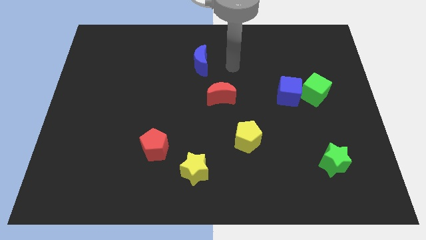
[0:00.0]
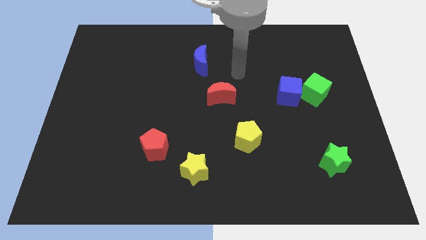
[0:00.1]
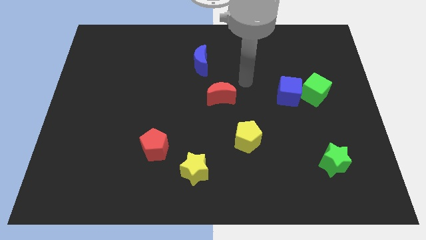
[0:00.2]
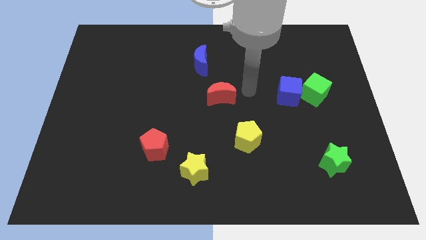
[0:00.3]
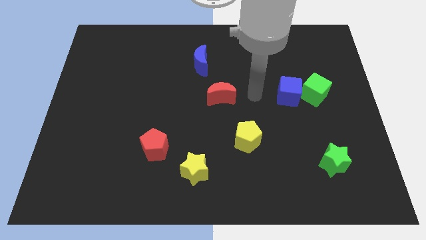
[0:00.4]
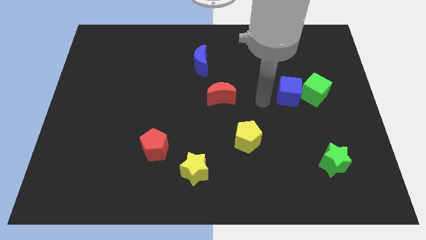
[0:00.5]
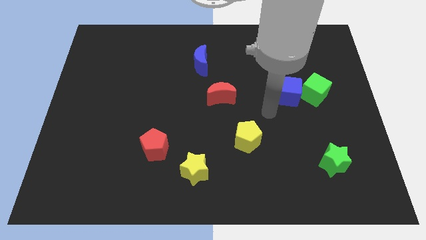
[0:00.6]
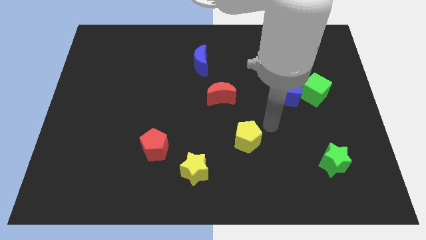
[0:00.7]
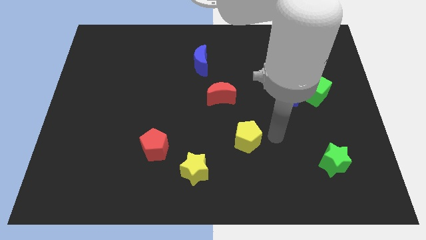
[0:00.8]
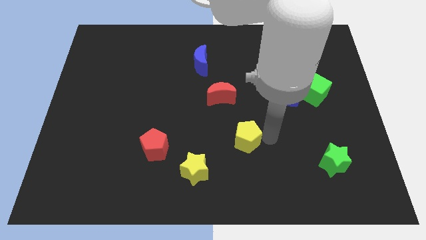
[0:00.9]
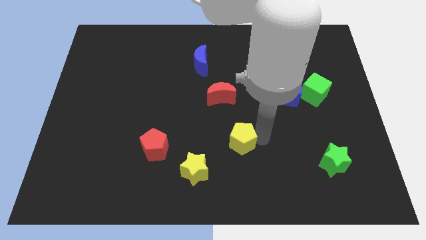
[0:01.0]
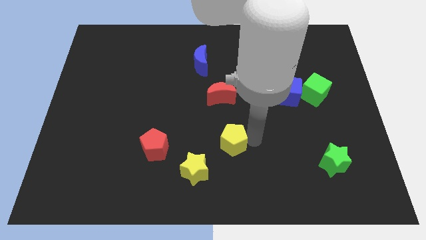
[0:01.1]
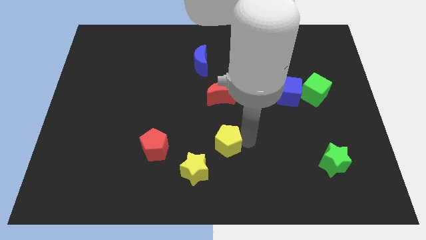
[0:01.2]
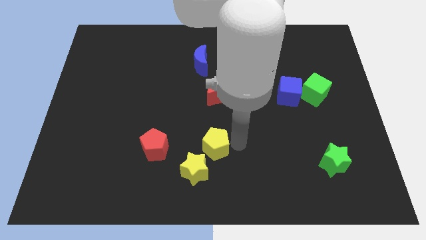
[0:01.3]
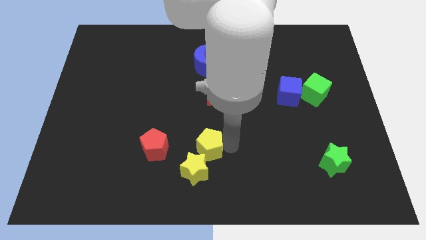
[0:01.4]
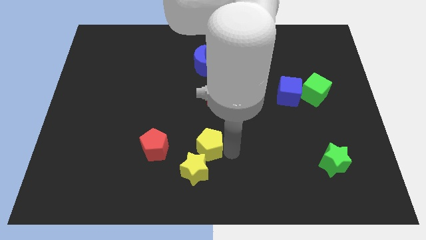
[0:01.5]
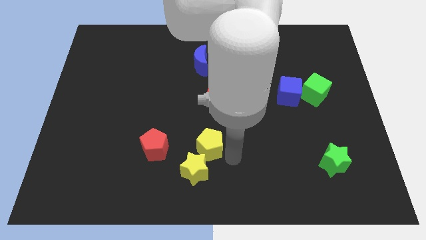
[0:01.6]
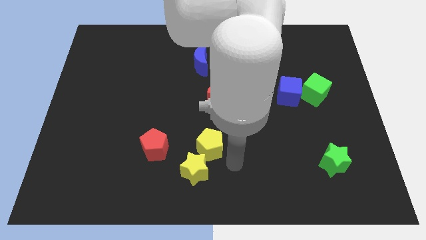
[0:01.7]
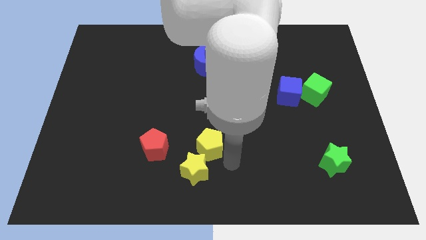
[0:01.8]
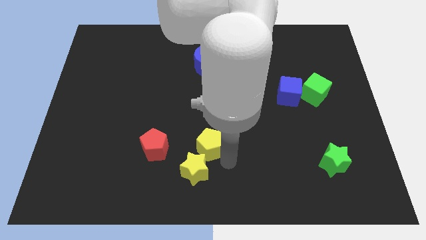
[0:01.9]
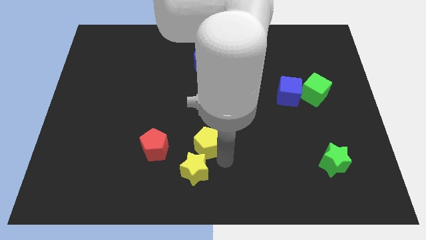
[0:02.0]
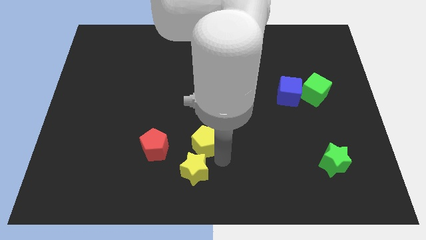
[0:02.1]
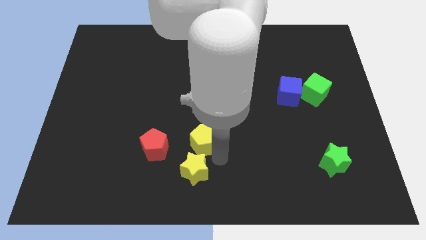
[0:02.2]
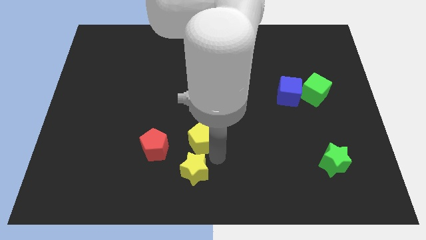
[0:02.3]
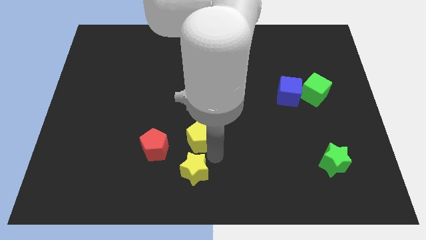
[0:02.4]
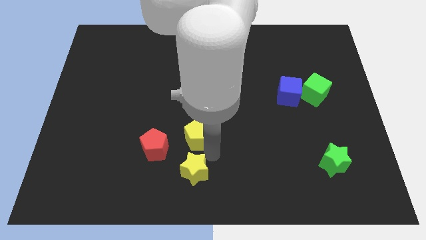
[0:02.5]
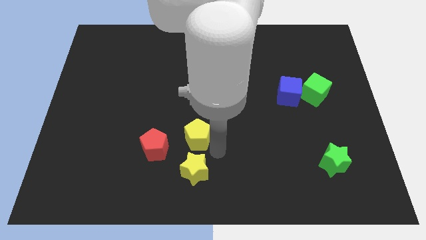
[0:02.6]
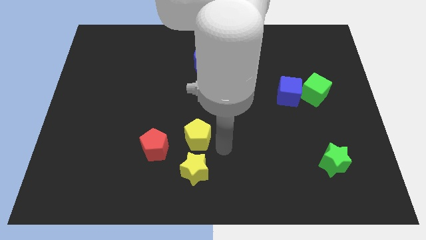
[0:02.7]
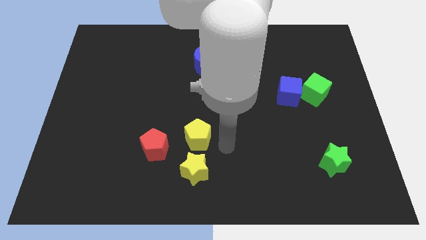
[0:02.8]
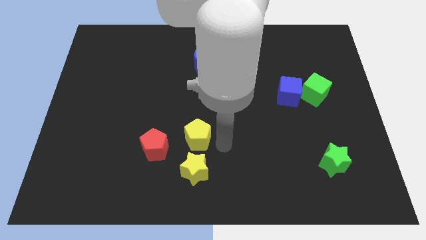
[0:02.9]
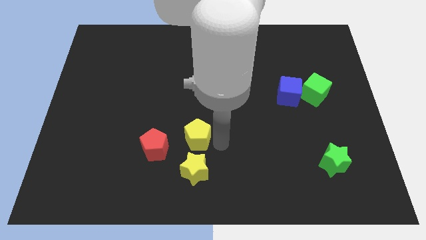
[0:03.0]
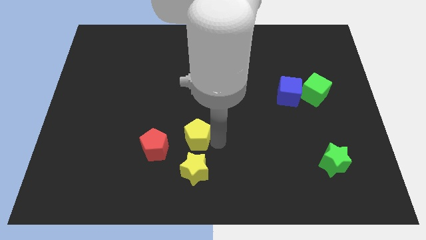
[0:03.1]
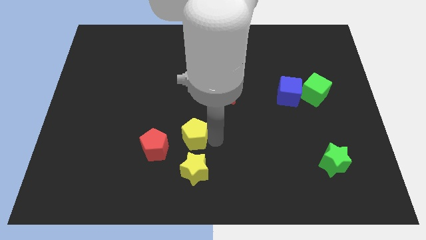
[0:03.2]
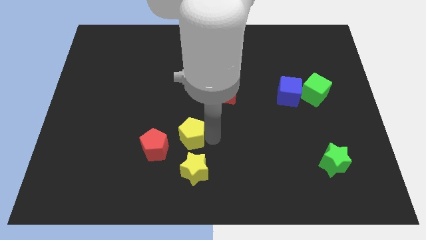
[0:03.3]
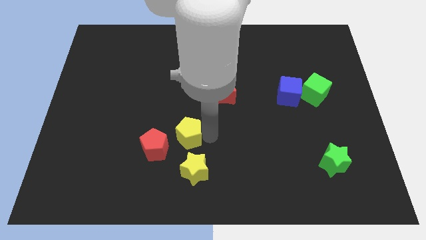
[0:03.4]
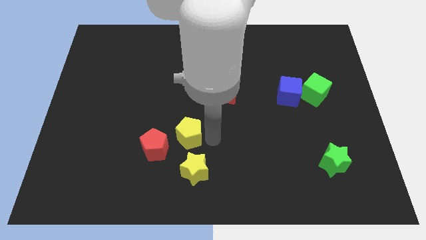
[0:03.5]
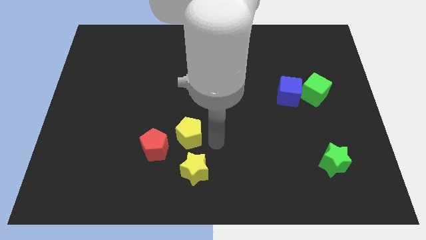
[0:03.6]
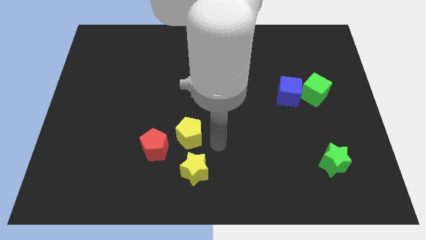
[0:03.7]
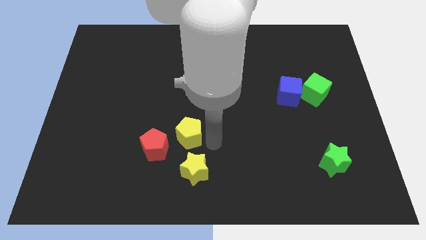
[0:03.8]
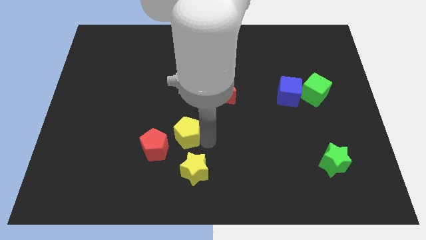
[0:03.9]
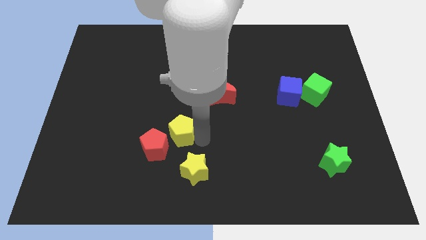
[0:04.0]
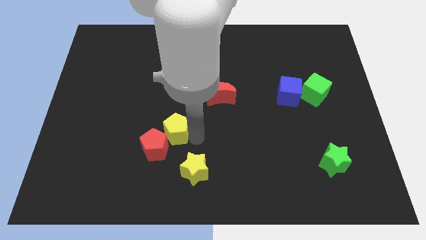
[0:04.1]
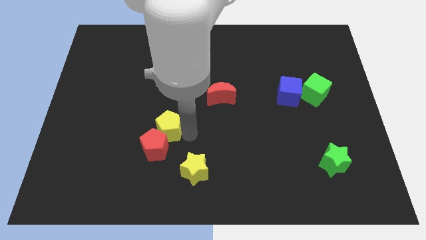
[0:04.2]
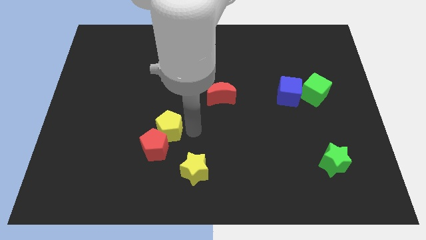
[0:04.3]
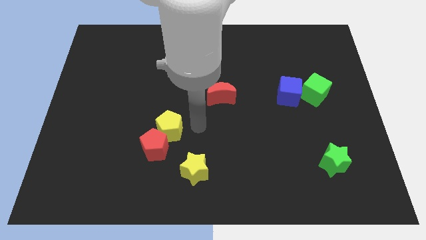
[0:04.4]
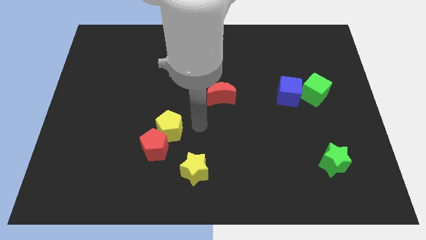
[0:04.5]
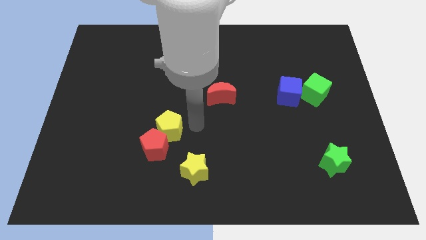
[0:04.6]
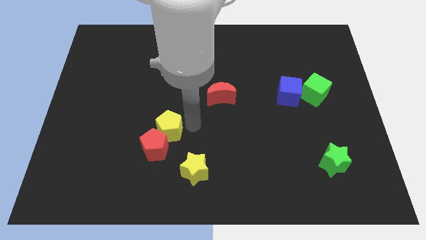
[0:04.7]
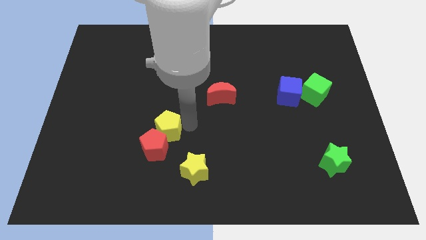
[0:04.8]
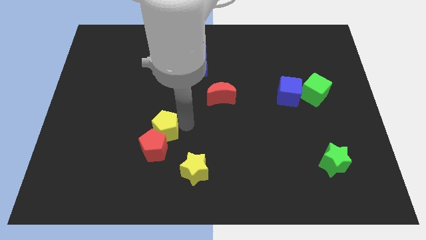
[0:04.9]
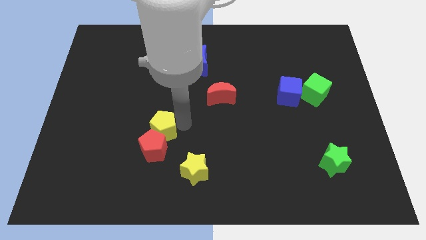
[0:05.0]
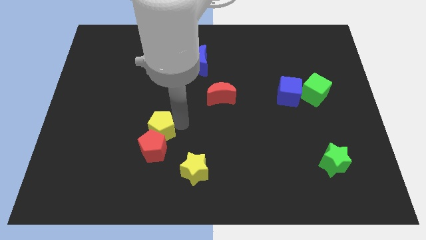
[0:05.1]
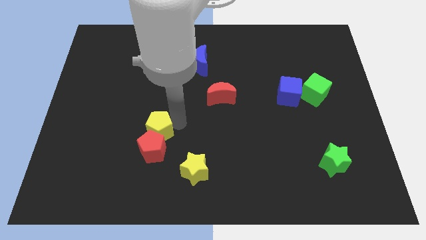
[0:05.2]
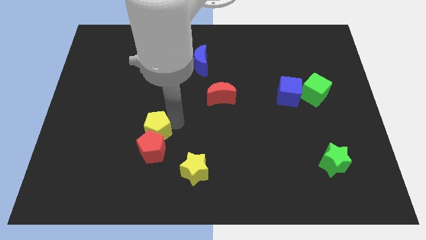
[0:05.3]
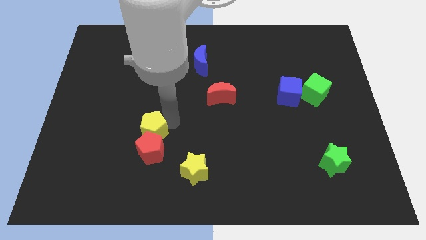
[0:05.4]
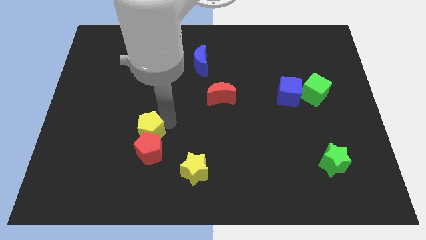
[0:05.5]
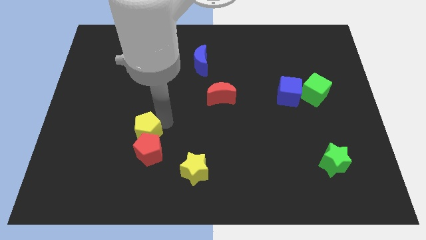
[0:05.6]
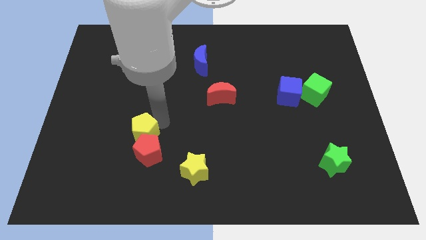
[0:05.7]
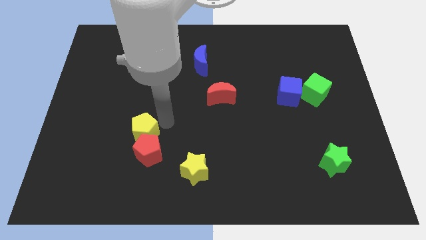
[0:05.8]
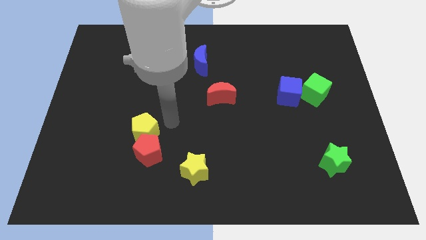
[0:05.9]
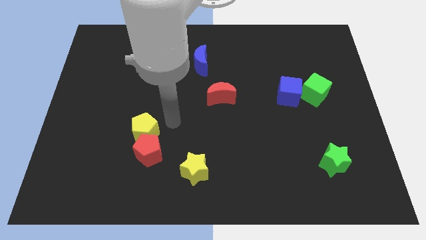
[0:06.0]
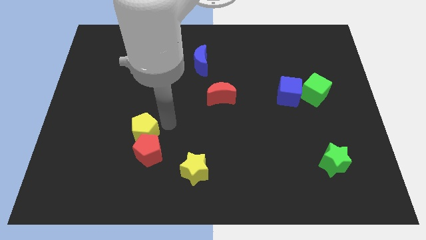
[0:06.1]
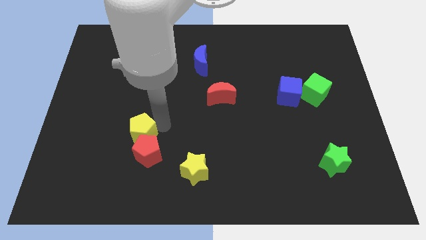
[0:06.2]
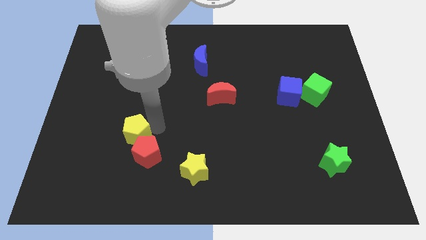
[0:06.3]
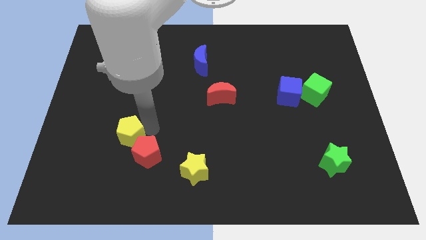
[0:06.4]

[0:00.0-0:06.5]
push the yellow pentagon to the left of the red pentagon

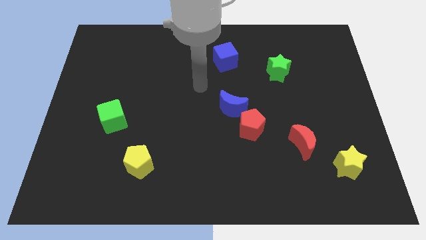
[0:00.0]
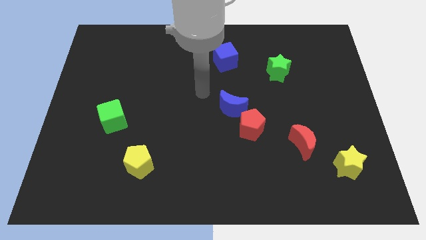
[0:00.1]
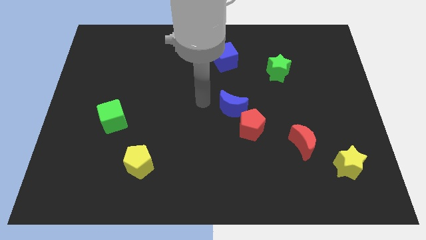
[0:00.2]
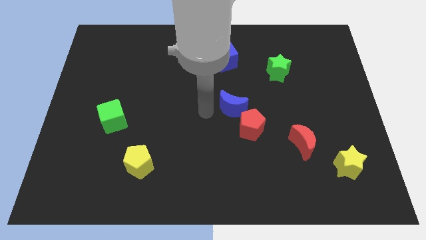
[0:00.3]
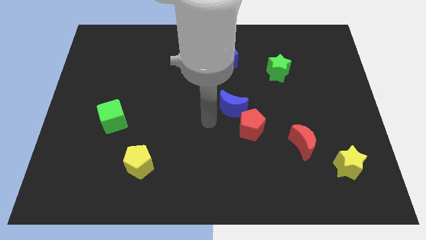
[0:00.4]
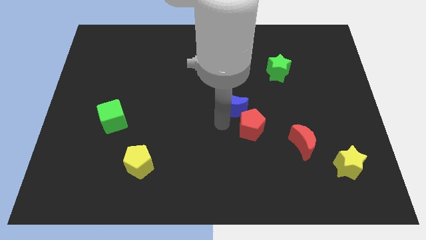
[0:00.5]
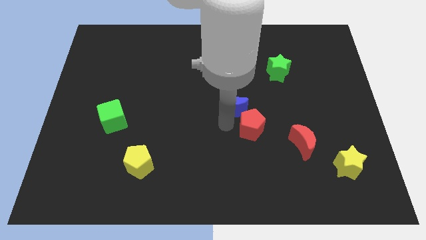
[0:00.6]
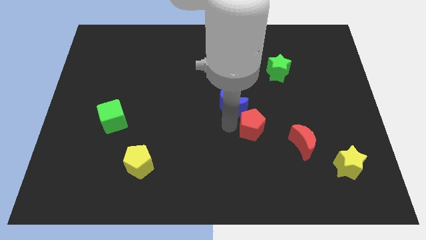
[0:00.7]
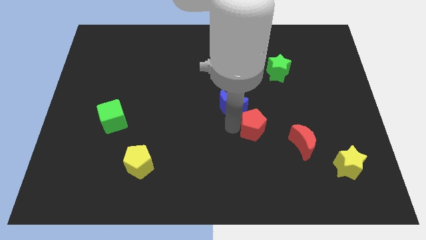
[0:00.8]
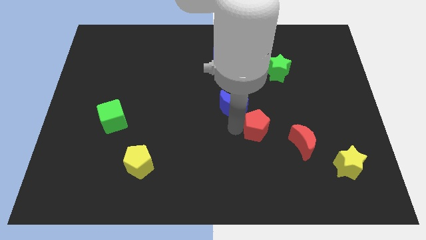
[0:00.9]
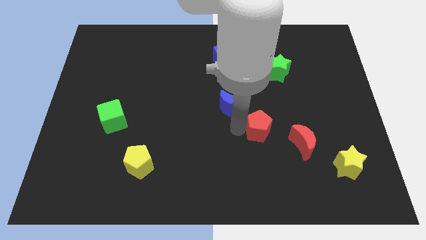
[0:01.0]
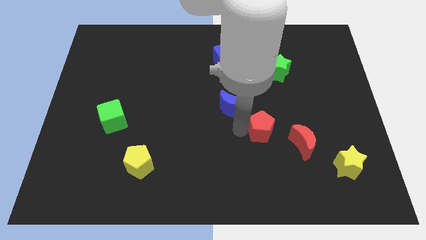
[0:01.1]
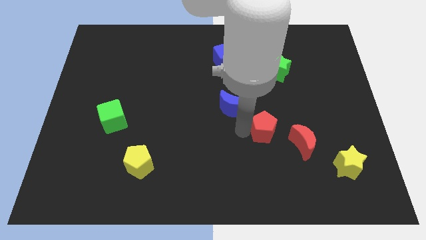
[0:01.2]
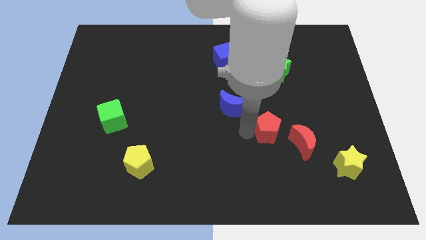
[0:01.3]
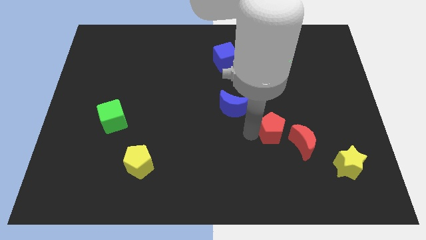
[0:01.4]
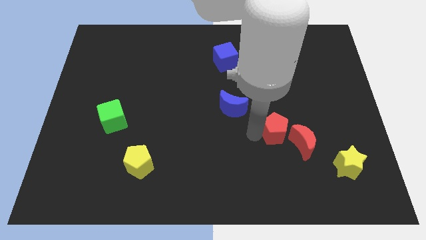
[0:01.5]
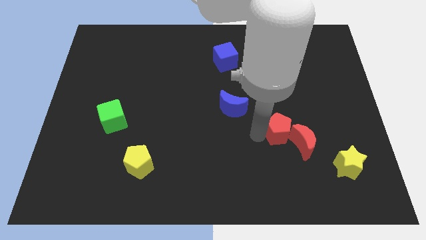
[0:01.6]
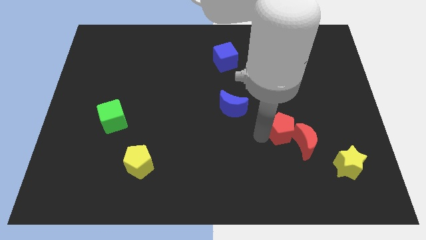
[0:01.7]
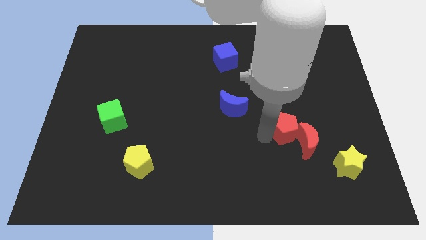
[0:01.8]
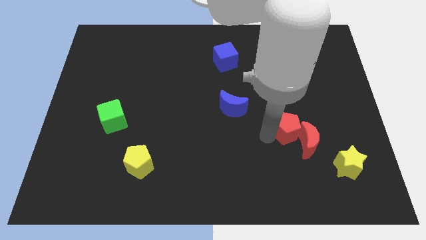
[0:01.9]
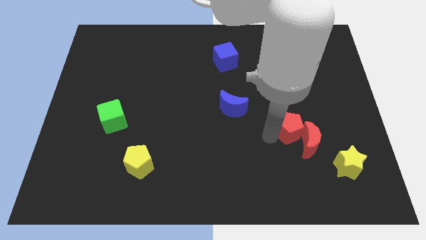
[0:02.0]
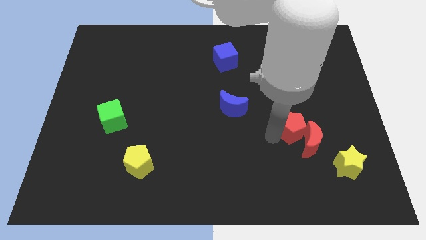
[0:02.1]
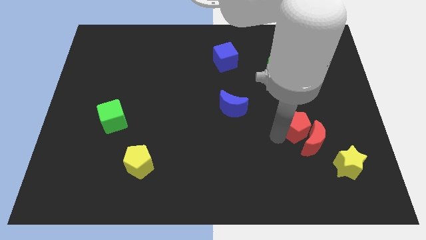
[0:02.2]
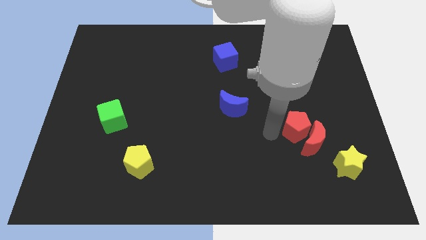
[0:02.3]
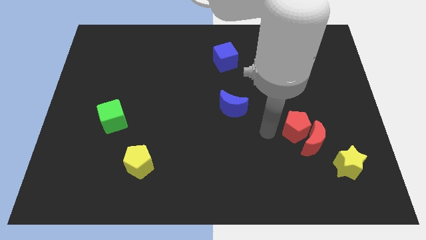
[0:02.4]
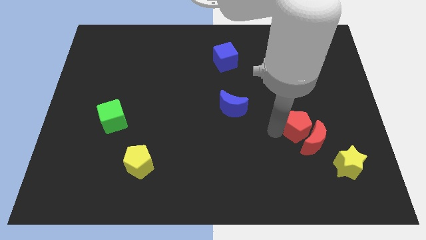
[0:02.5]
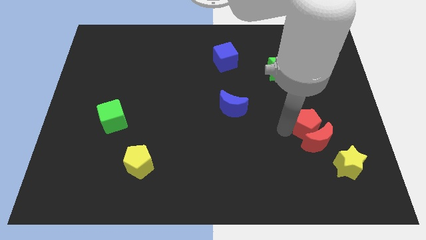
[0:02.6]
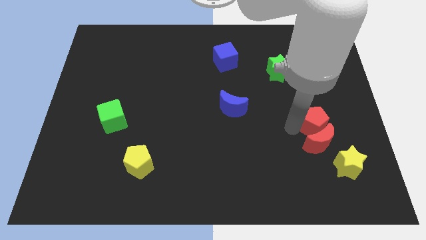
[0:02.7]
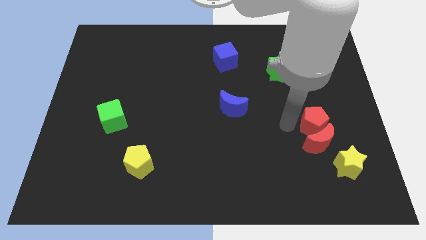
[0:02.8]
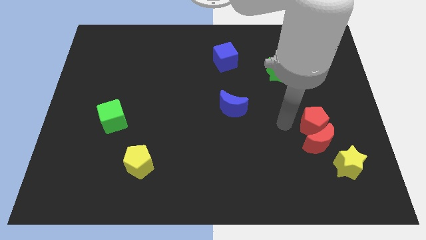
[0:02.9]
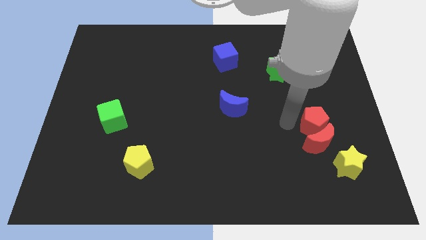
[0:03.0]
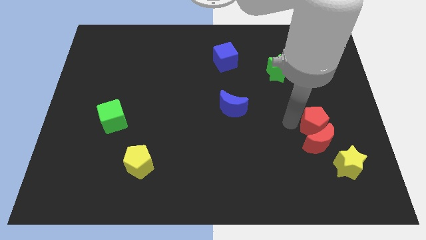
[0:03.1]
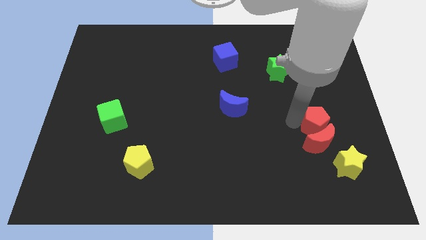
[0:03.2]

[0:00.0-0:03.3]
push the red pentagon to the top of the yellow star
